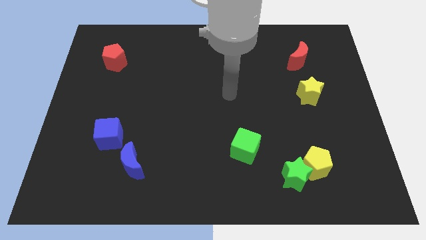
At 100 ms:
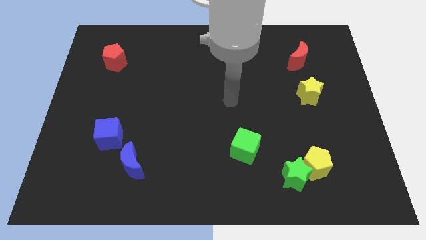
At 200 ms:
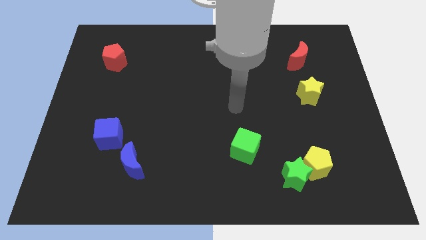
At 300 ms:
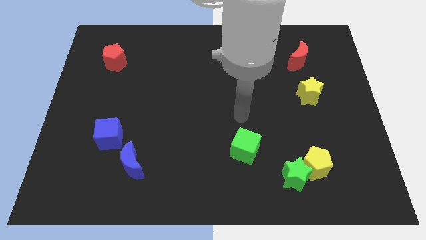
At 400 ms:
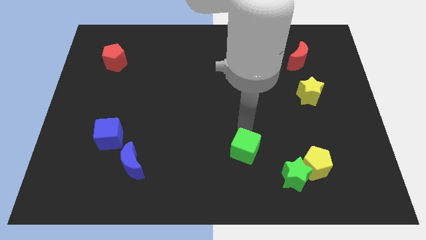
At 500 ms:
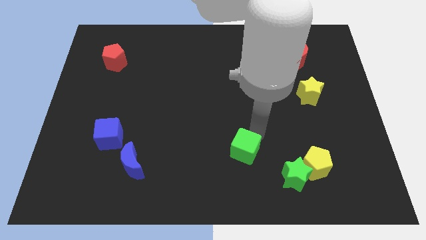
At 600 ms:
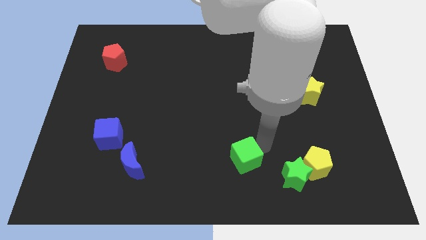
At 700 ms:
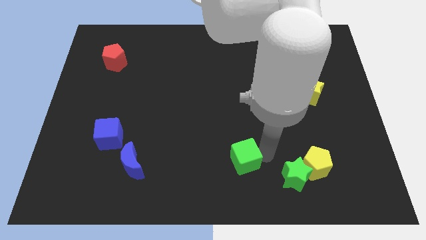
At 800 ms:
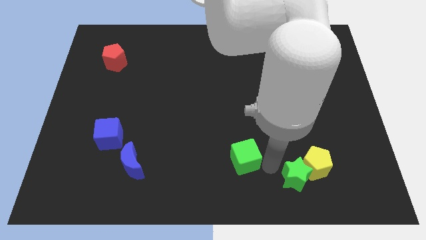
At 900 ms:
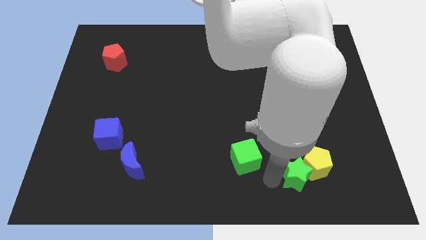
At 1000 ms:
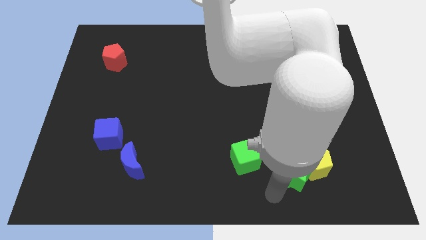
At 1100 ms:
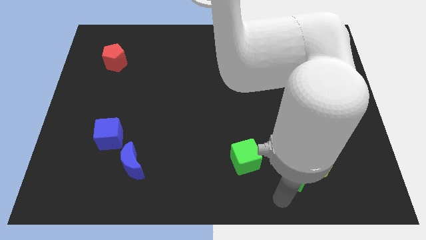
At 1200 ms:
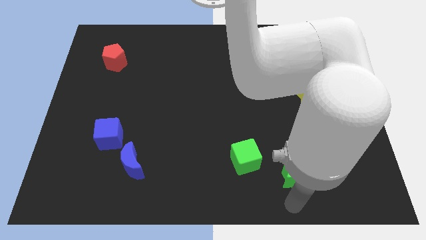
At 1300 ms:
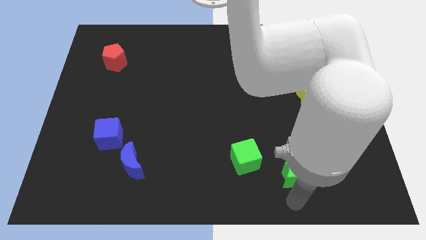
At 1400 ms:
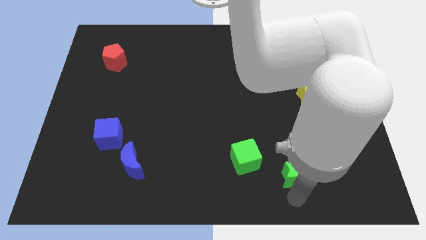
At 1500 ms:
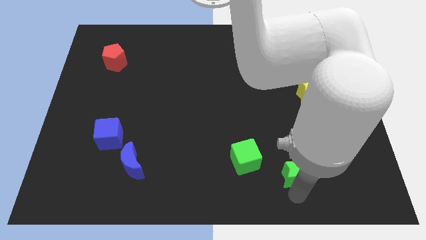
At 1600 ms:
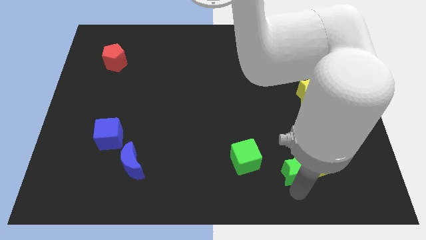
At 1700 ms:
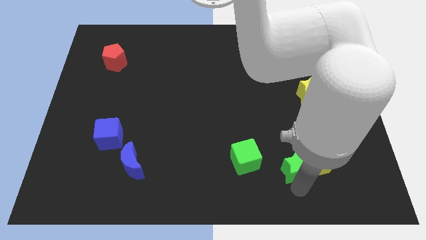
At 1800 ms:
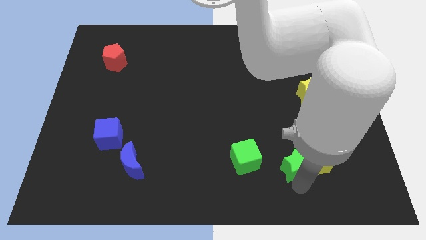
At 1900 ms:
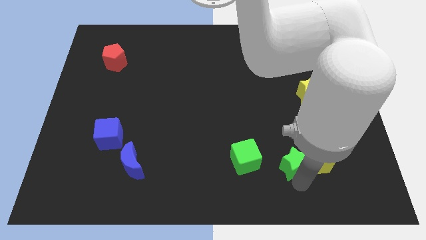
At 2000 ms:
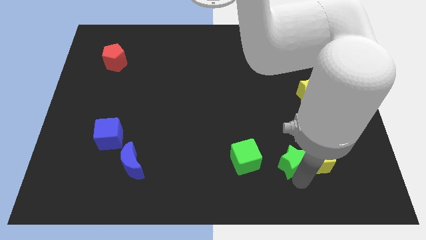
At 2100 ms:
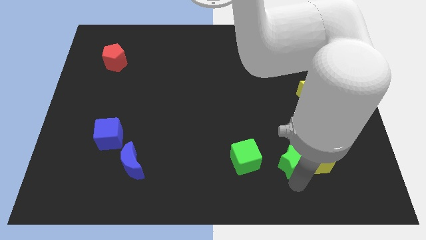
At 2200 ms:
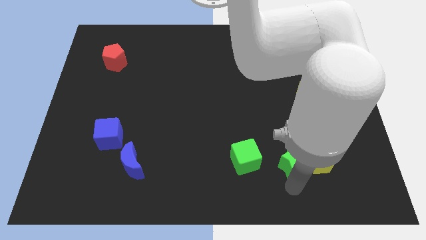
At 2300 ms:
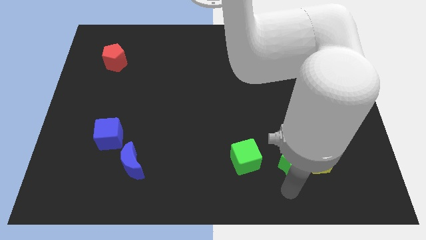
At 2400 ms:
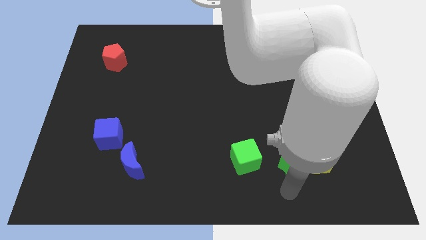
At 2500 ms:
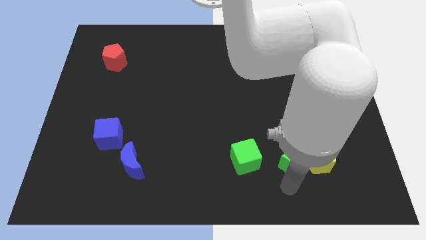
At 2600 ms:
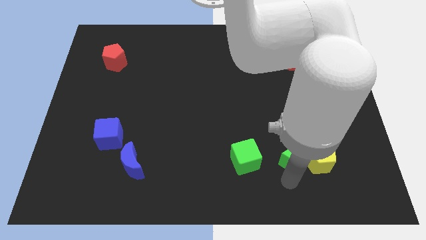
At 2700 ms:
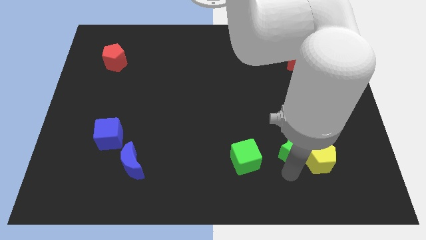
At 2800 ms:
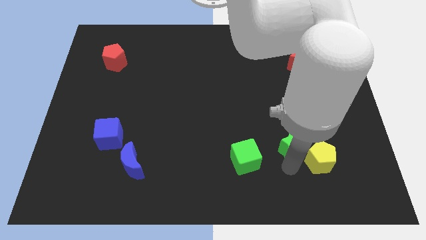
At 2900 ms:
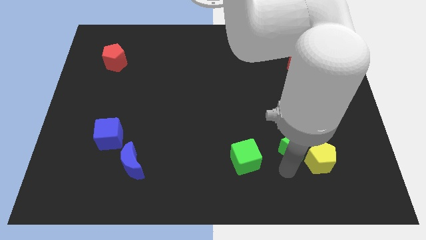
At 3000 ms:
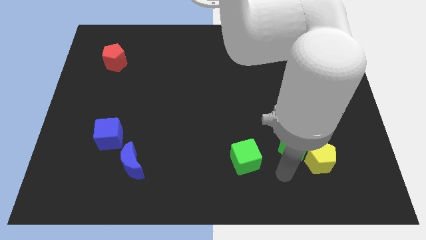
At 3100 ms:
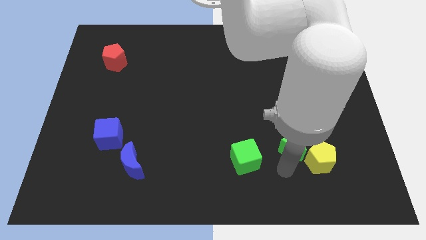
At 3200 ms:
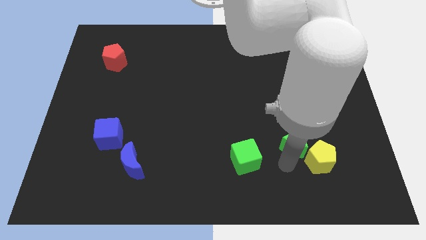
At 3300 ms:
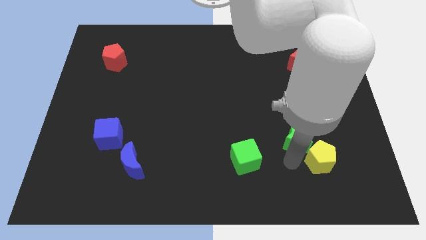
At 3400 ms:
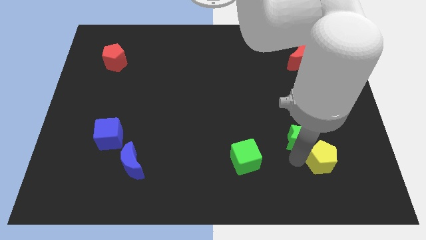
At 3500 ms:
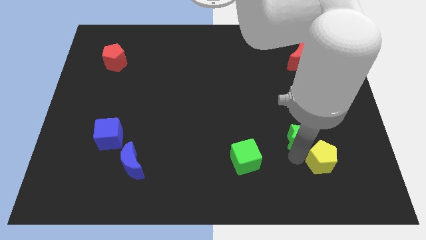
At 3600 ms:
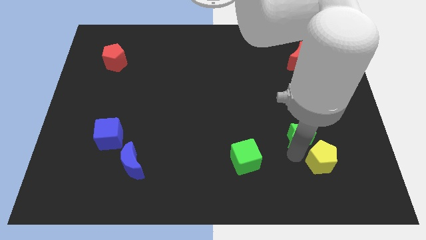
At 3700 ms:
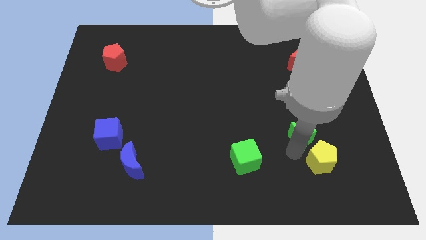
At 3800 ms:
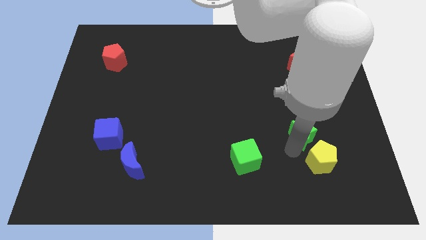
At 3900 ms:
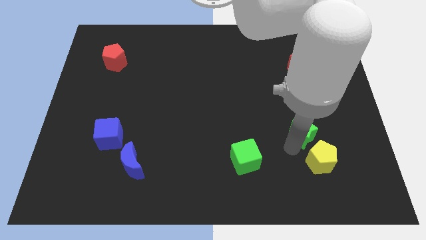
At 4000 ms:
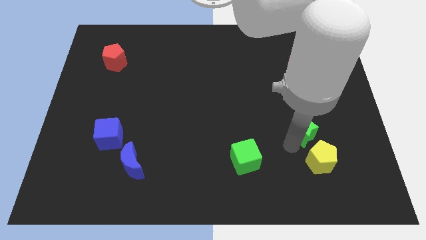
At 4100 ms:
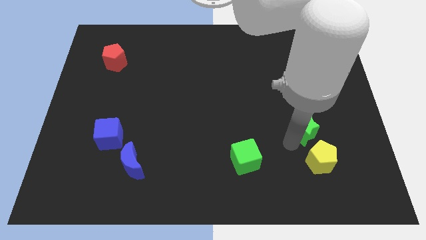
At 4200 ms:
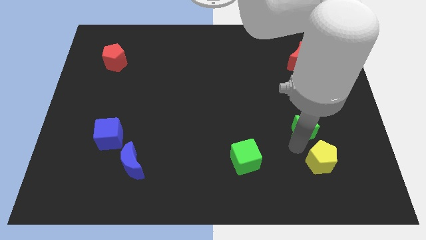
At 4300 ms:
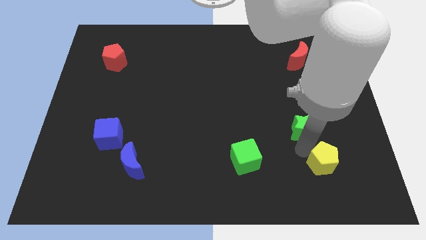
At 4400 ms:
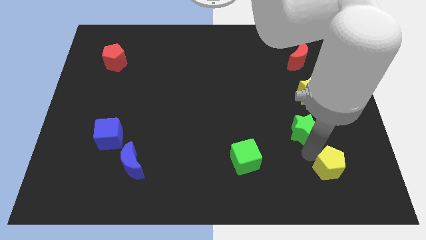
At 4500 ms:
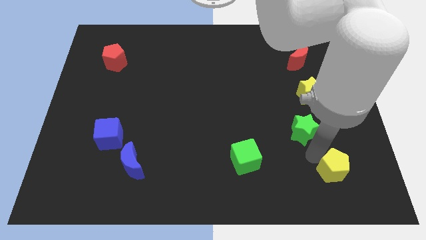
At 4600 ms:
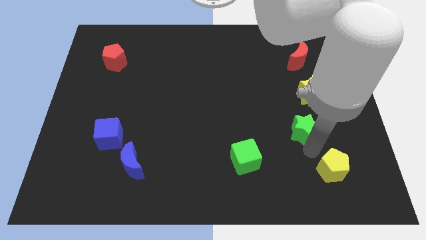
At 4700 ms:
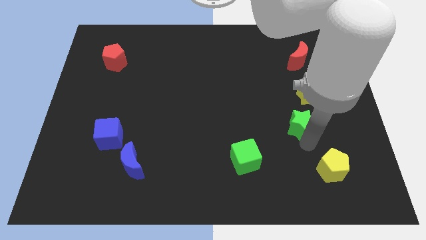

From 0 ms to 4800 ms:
slide the green star to the bottom left side of the yellow star

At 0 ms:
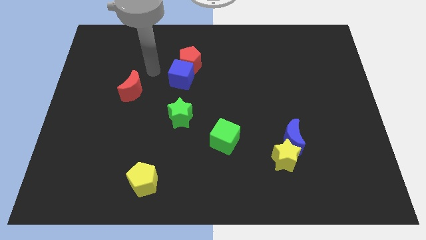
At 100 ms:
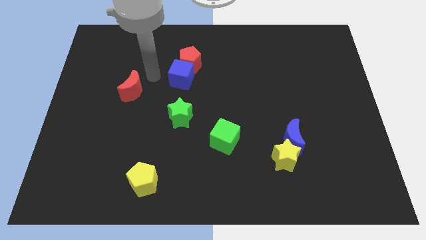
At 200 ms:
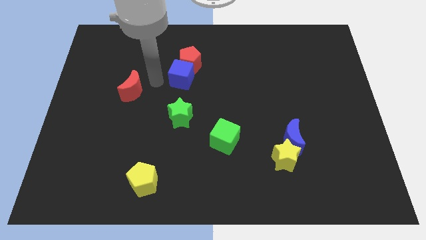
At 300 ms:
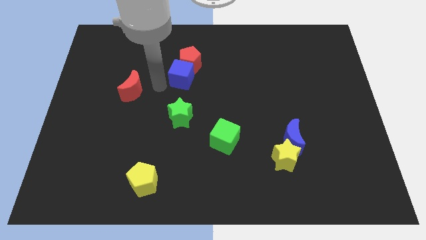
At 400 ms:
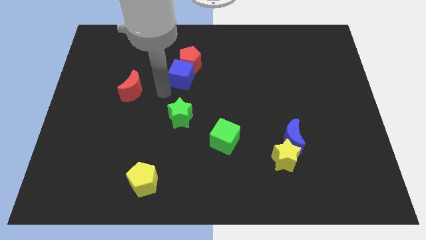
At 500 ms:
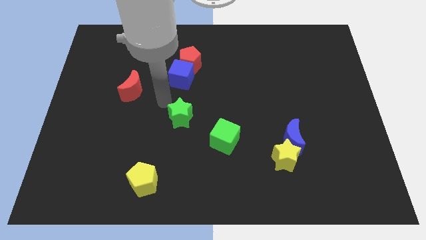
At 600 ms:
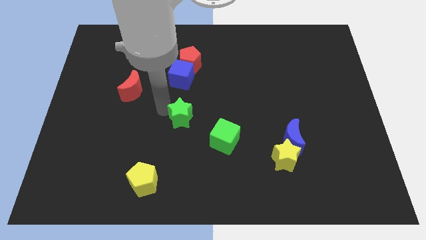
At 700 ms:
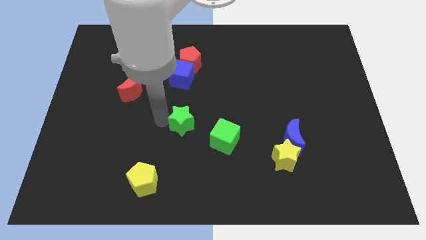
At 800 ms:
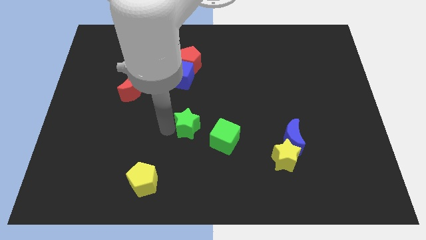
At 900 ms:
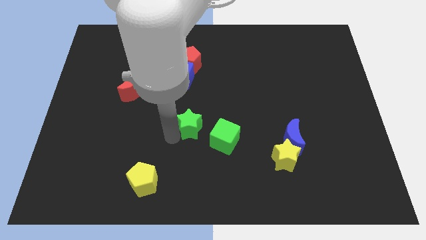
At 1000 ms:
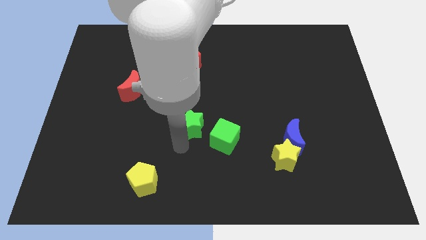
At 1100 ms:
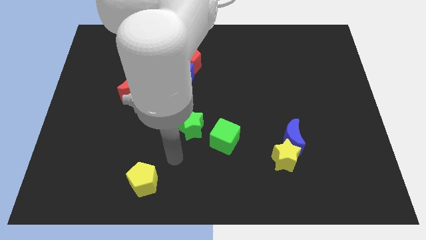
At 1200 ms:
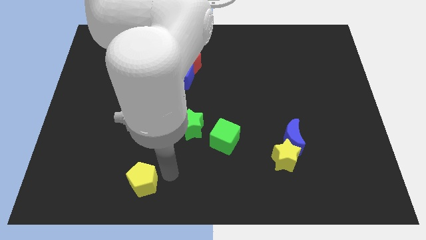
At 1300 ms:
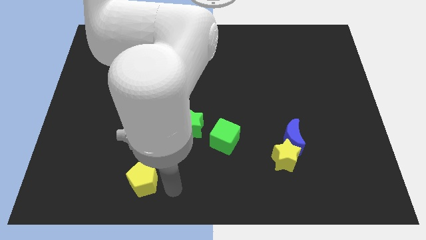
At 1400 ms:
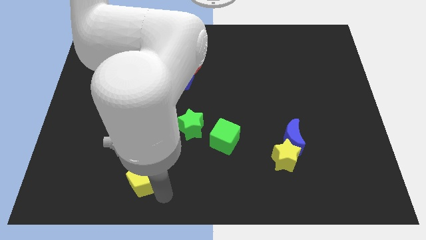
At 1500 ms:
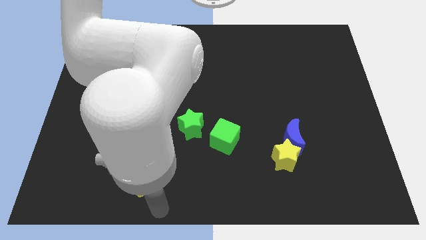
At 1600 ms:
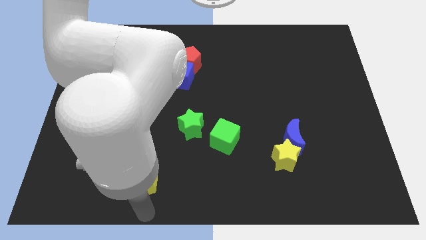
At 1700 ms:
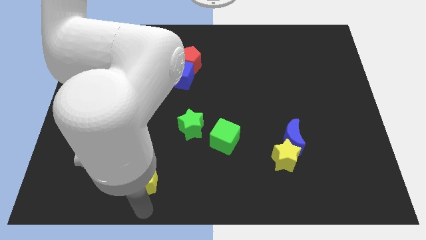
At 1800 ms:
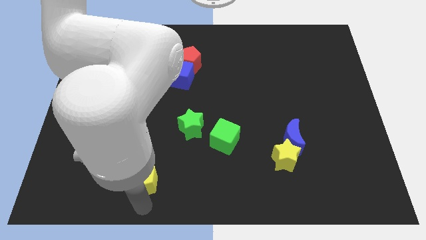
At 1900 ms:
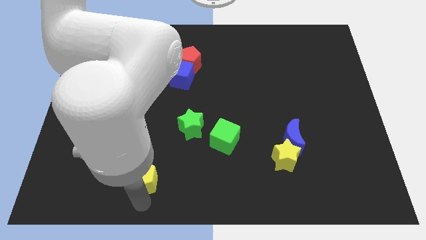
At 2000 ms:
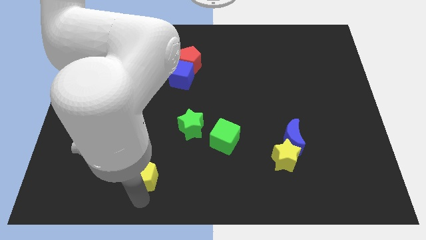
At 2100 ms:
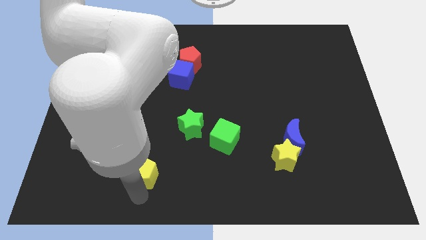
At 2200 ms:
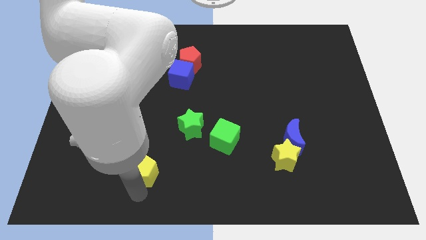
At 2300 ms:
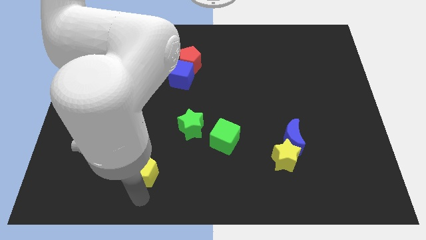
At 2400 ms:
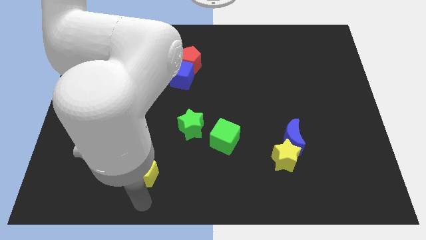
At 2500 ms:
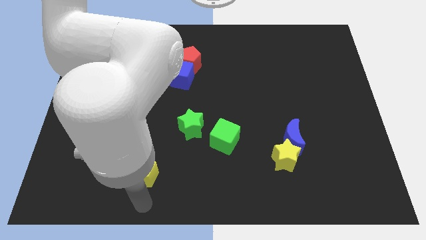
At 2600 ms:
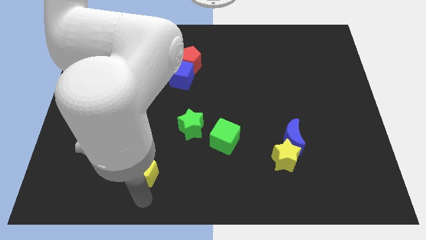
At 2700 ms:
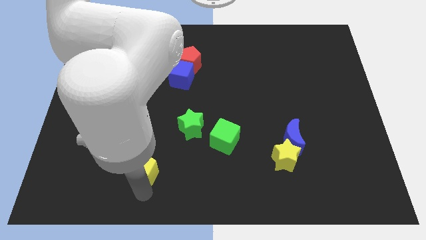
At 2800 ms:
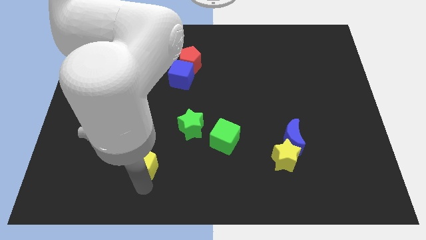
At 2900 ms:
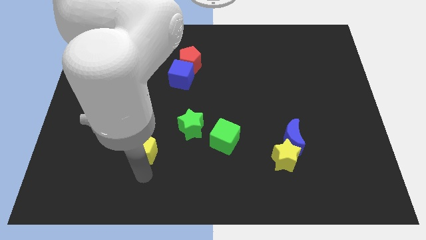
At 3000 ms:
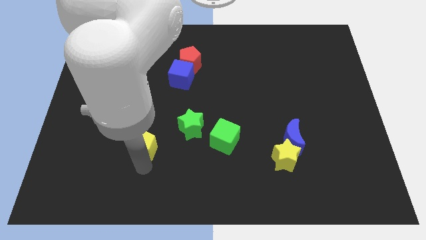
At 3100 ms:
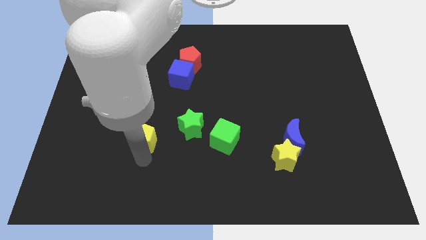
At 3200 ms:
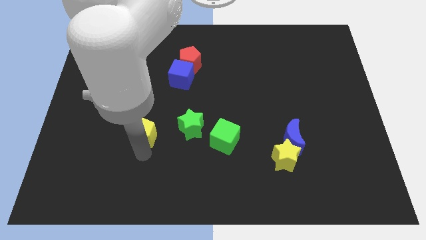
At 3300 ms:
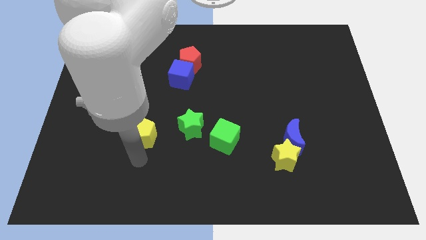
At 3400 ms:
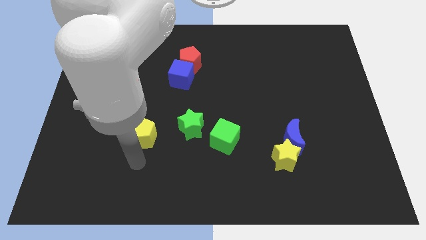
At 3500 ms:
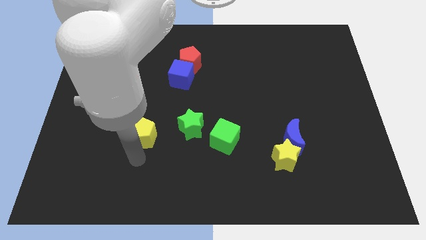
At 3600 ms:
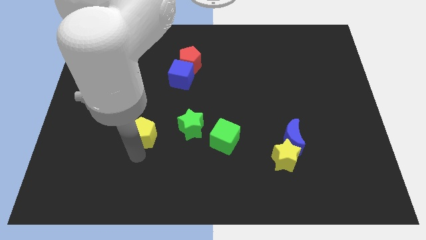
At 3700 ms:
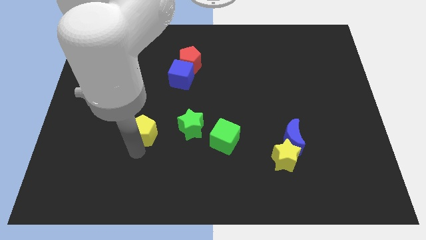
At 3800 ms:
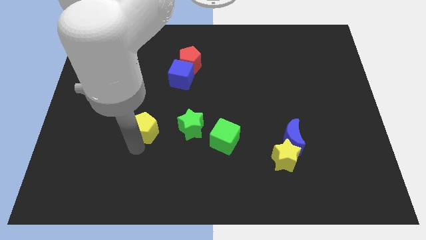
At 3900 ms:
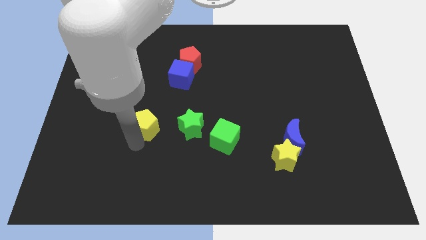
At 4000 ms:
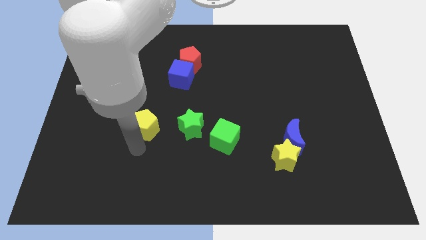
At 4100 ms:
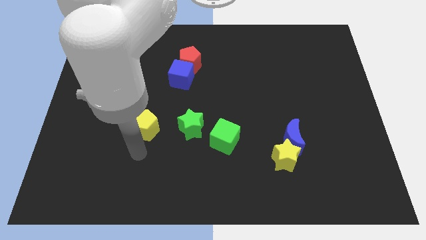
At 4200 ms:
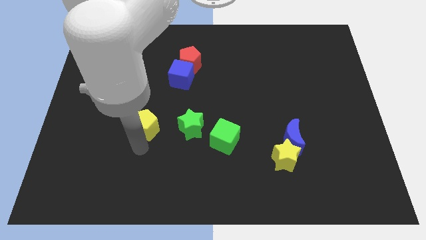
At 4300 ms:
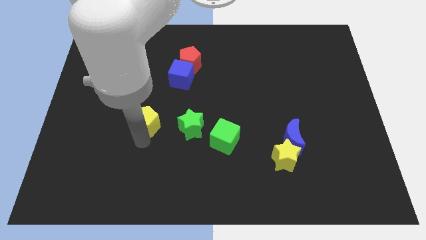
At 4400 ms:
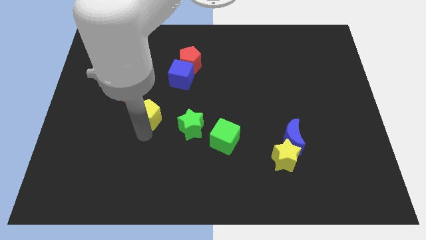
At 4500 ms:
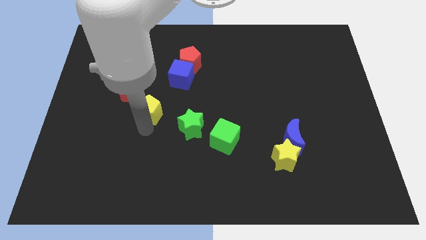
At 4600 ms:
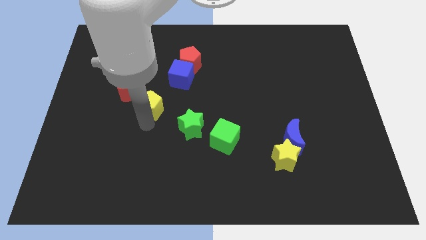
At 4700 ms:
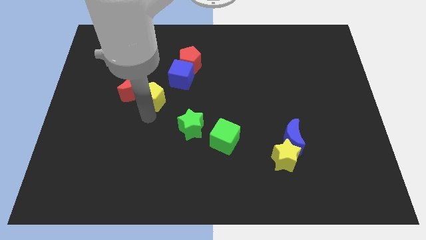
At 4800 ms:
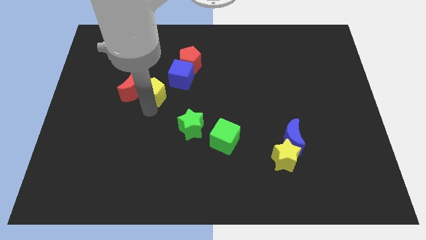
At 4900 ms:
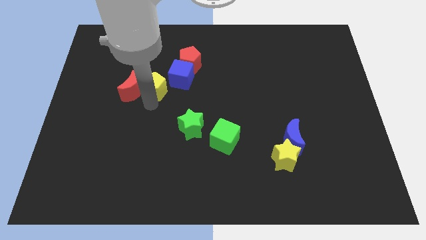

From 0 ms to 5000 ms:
put the yellow pentagon left of the blue cube
